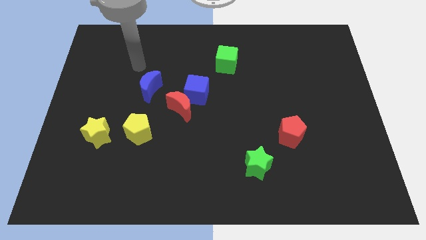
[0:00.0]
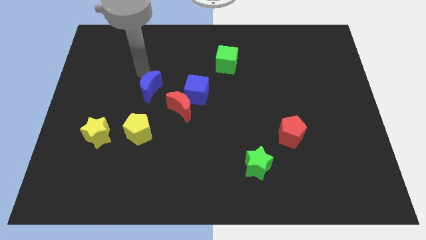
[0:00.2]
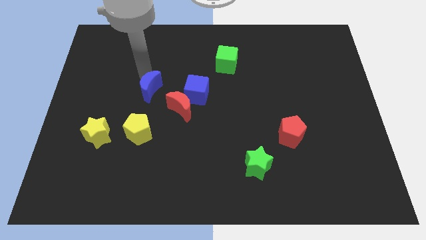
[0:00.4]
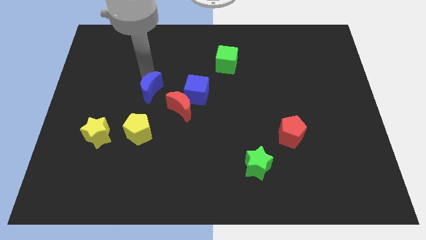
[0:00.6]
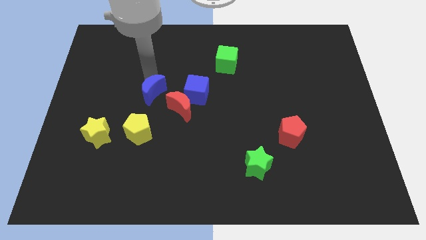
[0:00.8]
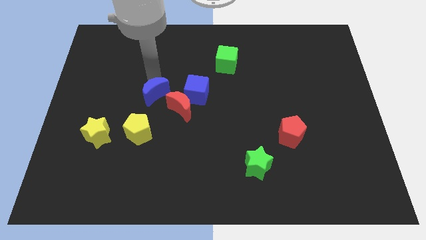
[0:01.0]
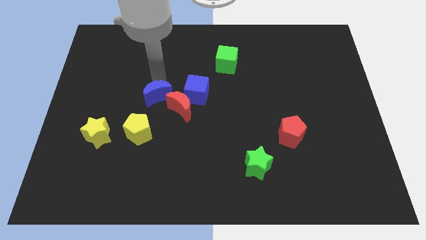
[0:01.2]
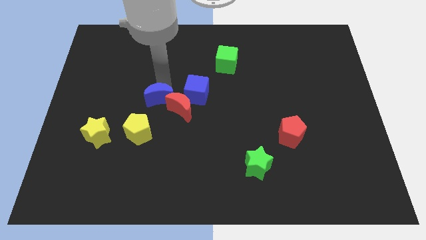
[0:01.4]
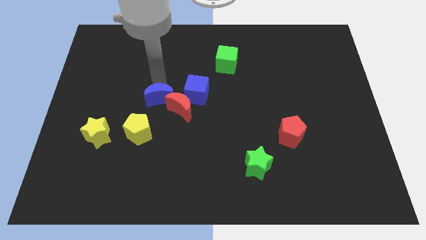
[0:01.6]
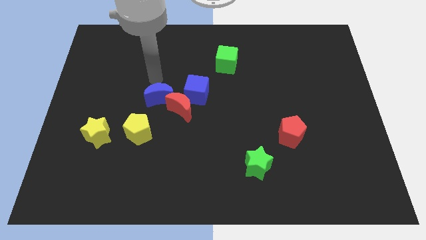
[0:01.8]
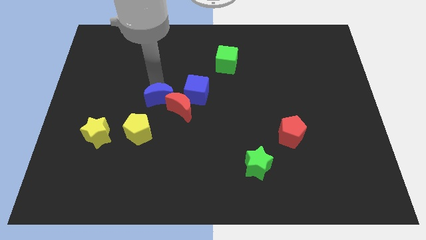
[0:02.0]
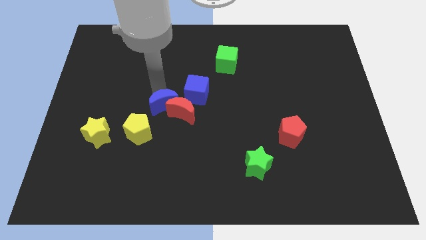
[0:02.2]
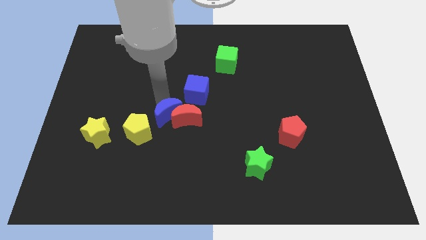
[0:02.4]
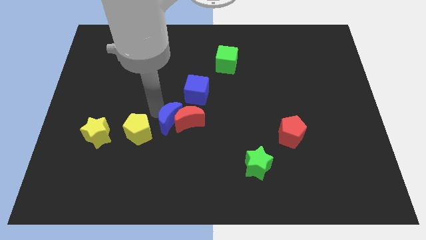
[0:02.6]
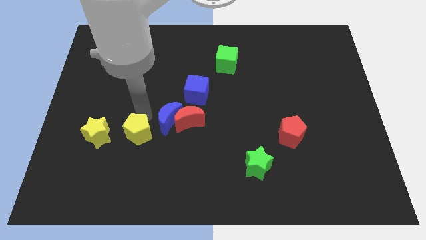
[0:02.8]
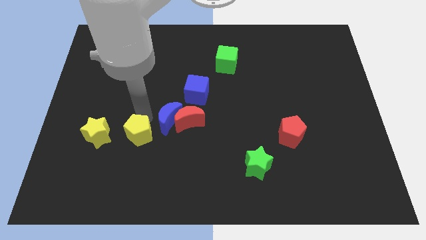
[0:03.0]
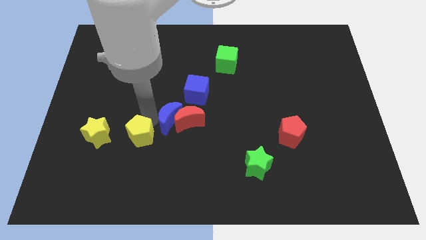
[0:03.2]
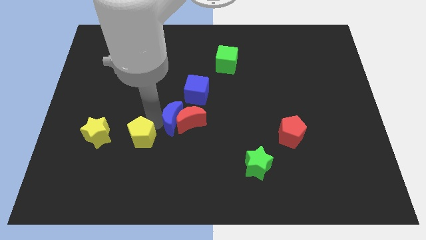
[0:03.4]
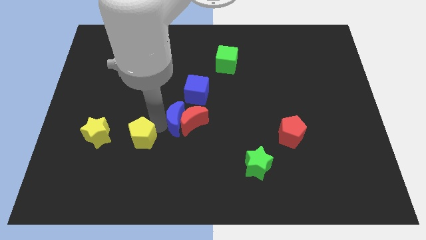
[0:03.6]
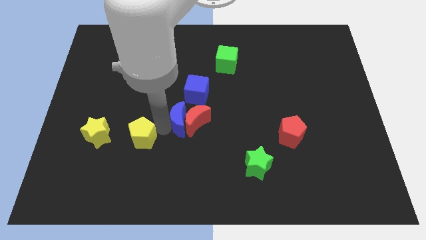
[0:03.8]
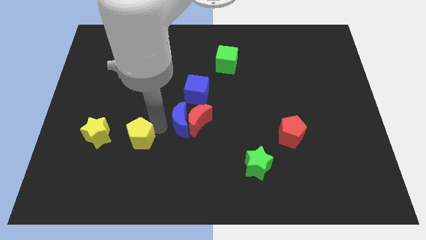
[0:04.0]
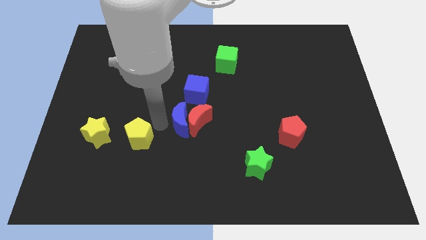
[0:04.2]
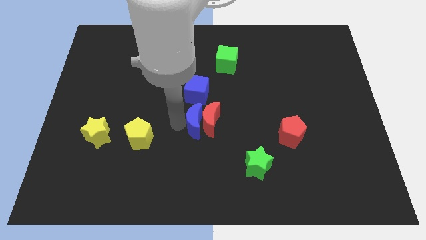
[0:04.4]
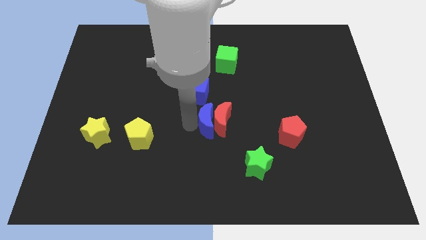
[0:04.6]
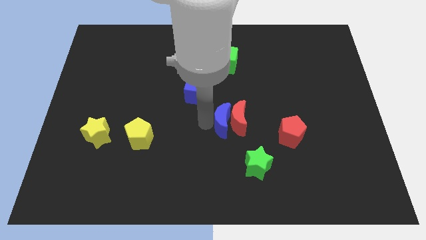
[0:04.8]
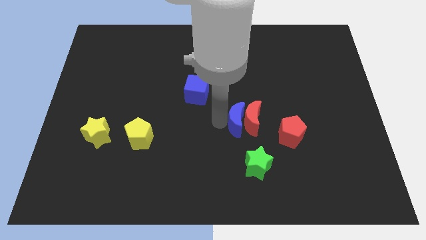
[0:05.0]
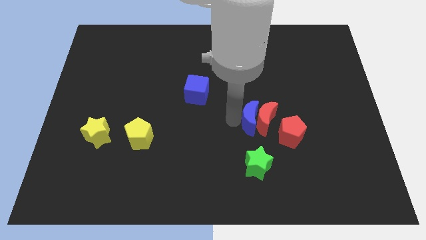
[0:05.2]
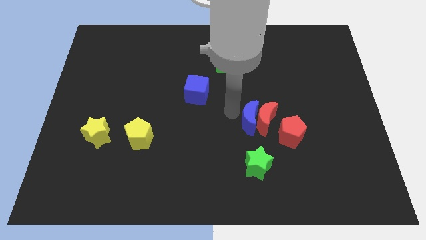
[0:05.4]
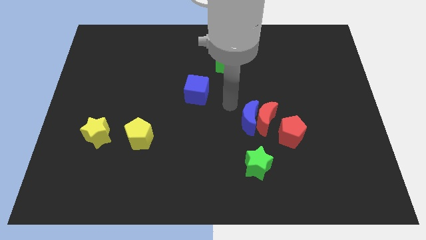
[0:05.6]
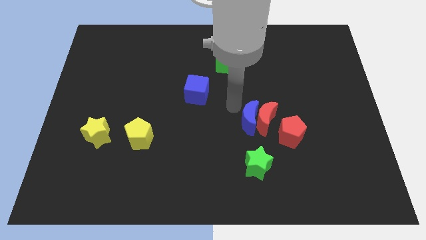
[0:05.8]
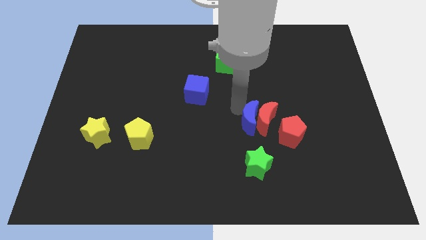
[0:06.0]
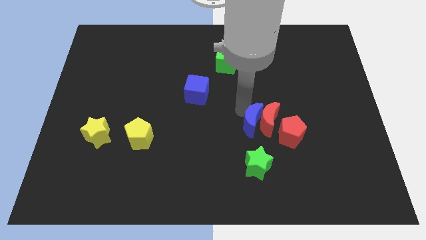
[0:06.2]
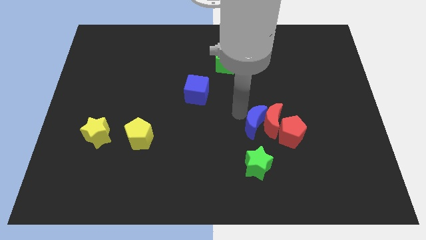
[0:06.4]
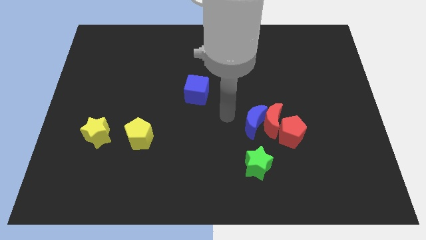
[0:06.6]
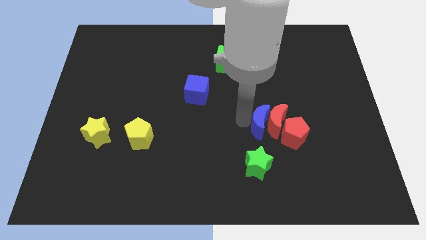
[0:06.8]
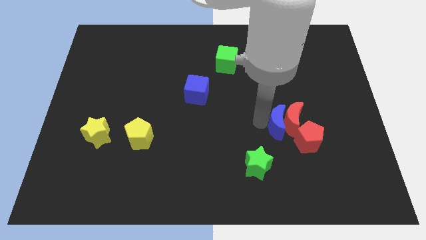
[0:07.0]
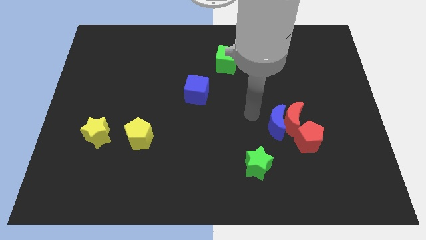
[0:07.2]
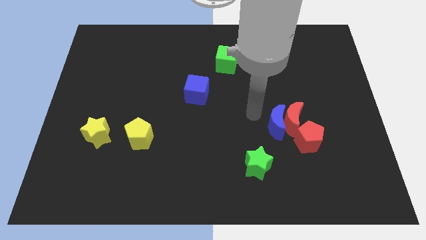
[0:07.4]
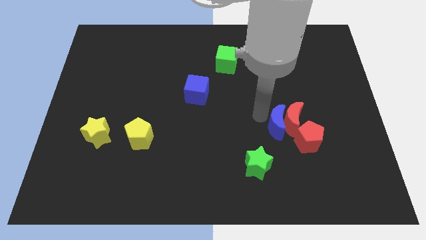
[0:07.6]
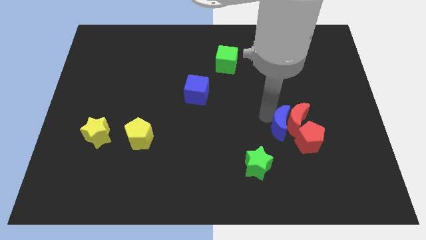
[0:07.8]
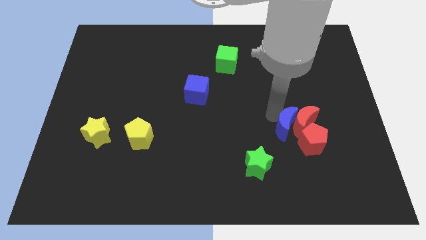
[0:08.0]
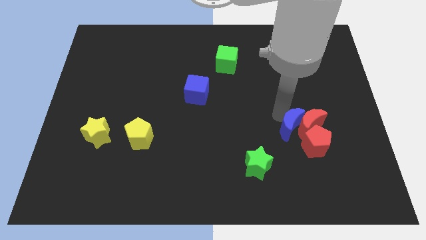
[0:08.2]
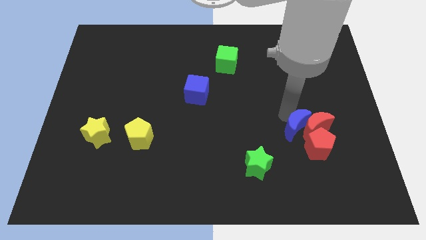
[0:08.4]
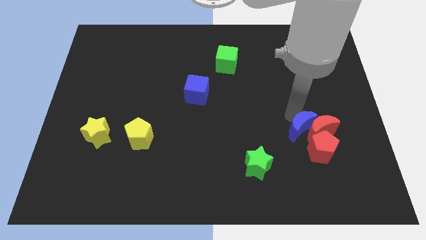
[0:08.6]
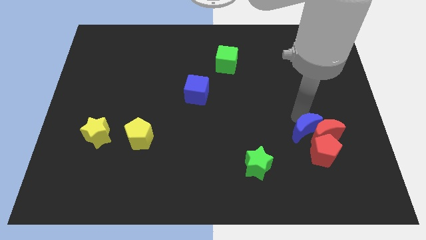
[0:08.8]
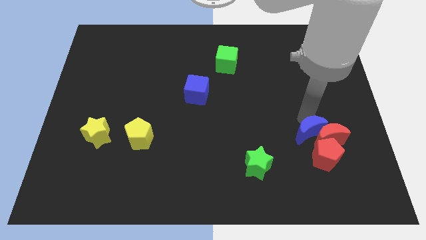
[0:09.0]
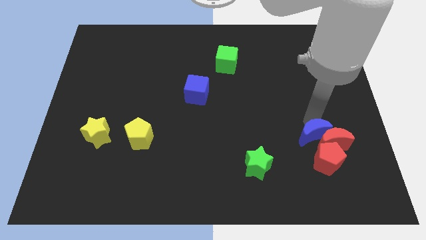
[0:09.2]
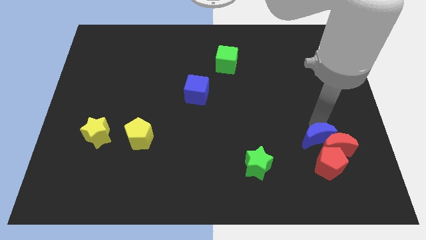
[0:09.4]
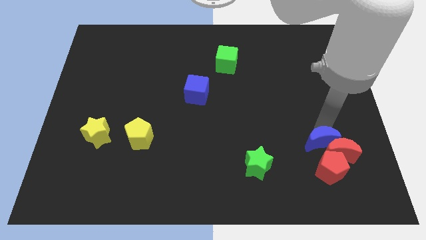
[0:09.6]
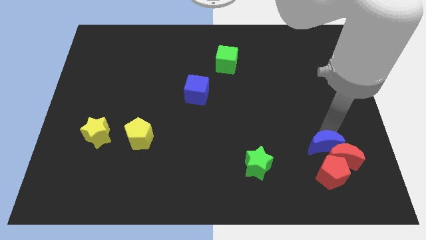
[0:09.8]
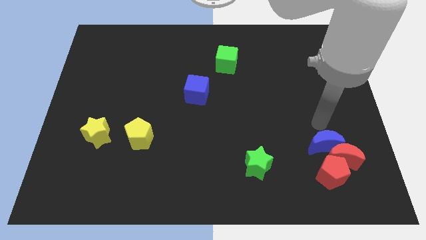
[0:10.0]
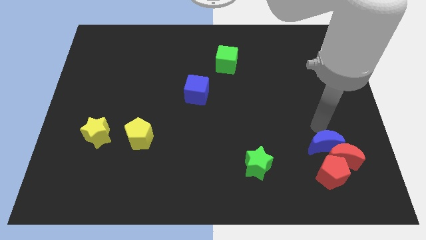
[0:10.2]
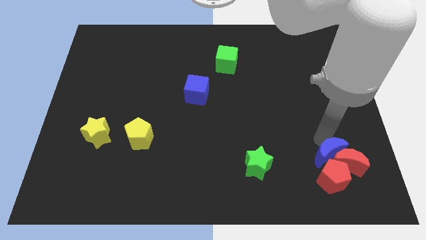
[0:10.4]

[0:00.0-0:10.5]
move the blue moon towards the red pentagon

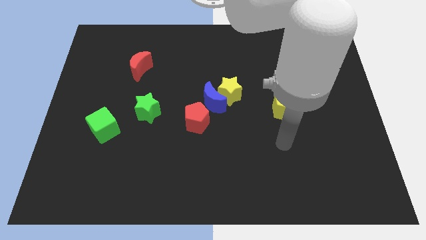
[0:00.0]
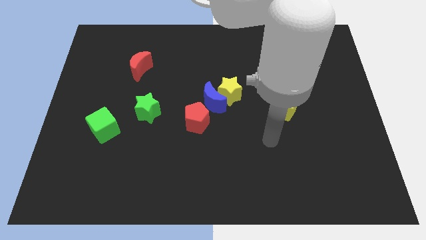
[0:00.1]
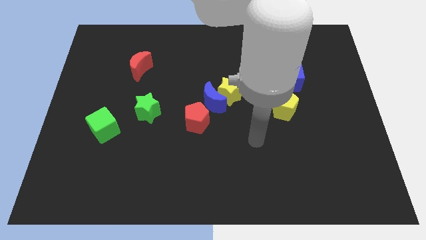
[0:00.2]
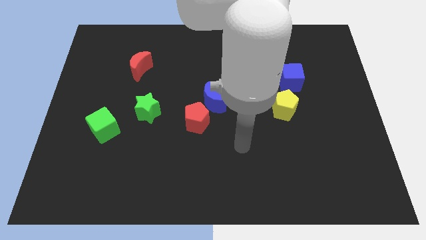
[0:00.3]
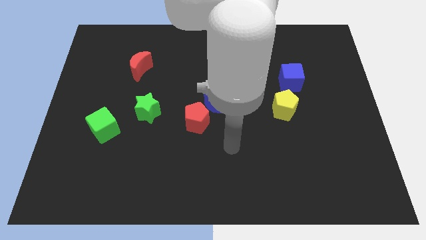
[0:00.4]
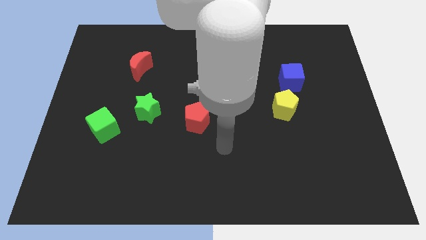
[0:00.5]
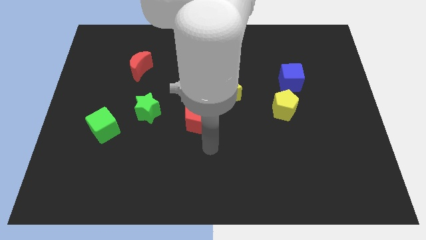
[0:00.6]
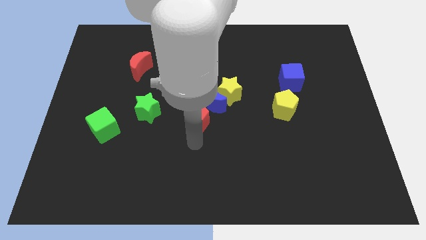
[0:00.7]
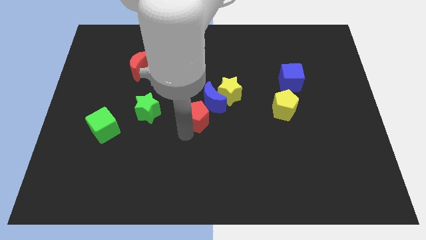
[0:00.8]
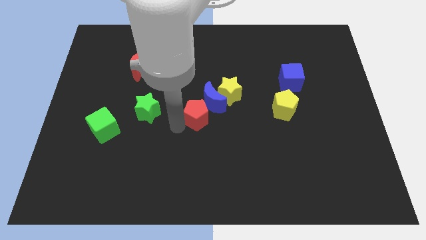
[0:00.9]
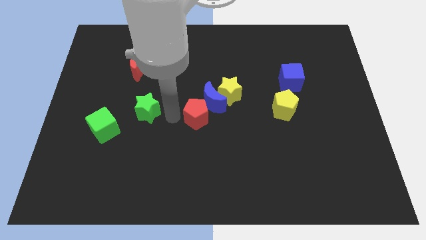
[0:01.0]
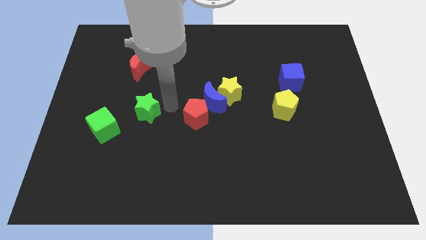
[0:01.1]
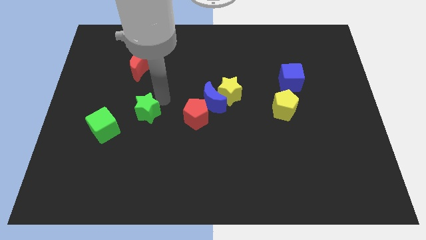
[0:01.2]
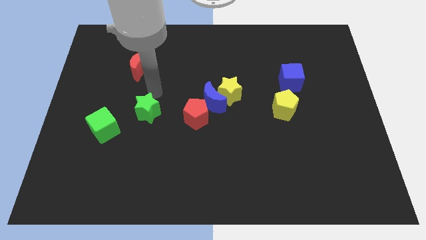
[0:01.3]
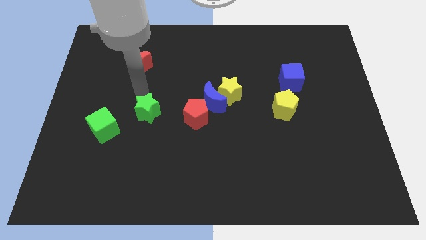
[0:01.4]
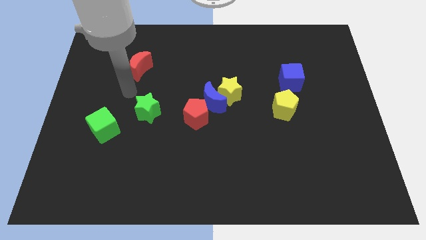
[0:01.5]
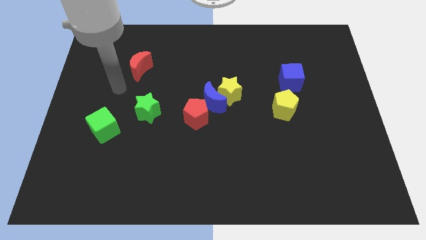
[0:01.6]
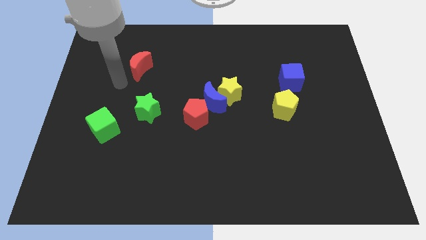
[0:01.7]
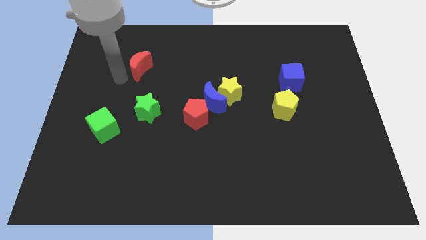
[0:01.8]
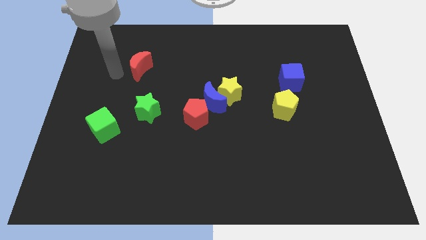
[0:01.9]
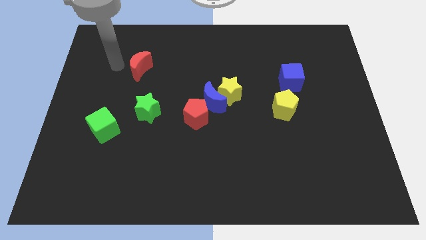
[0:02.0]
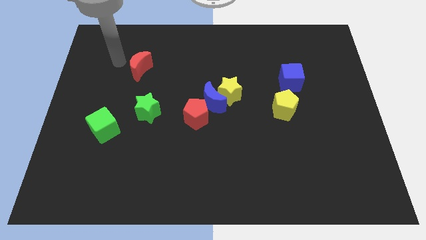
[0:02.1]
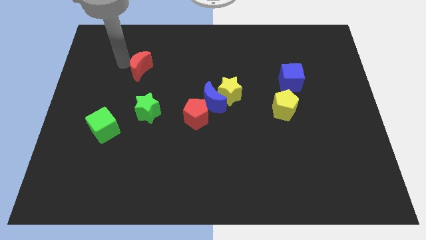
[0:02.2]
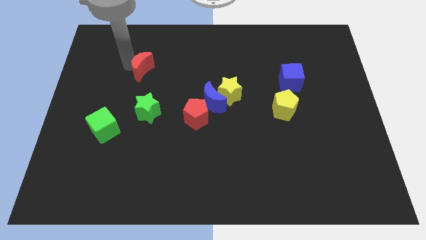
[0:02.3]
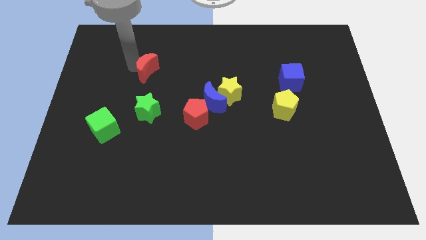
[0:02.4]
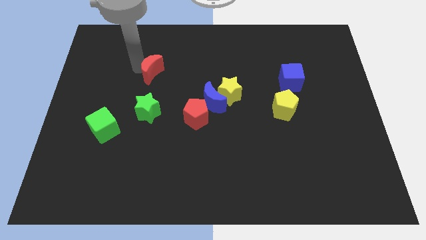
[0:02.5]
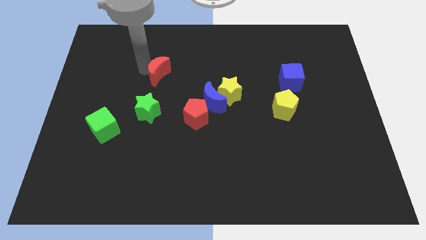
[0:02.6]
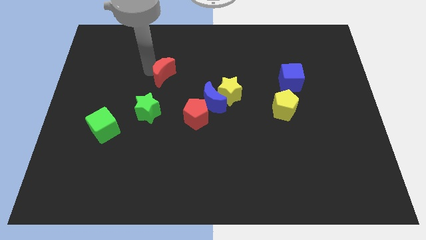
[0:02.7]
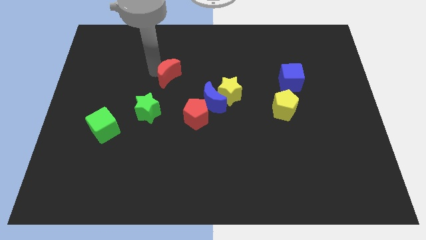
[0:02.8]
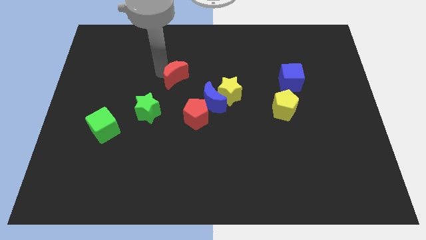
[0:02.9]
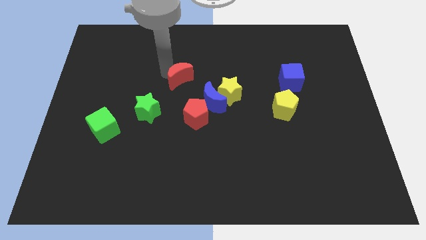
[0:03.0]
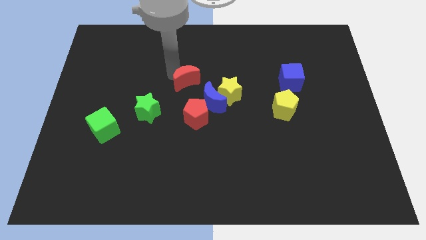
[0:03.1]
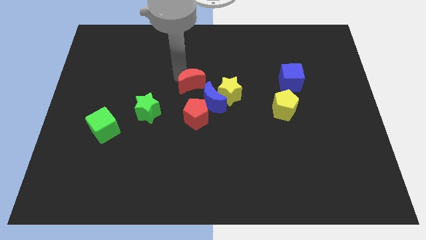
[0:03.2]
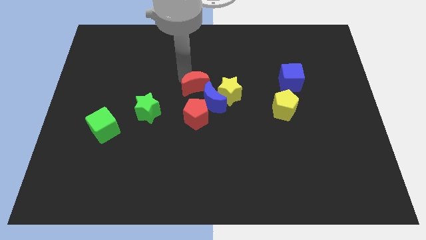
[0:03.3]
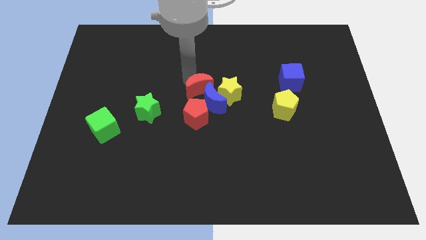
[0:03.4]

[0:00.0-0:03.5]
move the red moon to the blue moon
